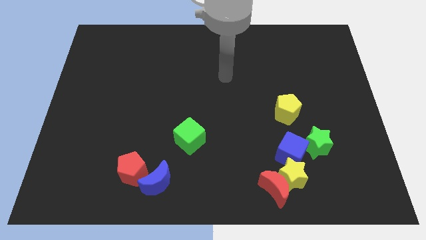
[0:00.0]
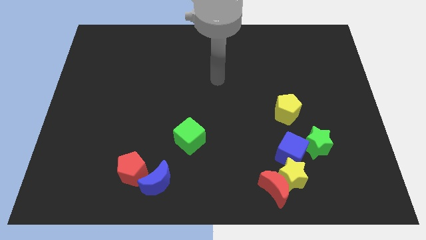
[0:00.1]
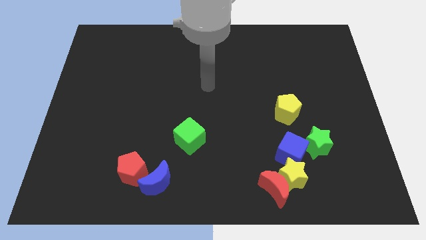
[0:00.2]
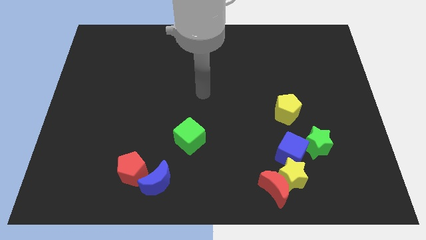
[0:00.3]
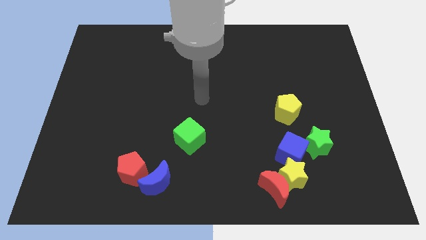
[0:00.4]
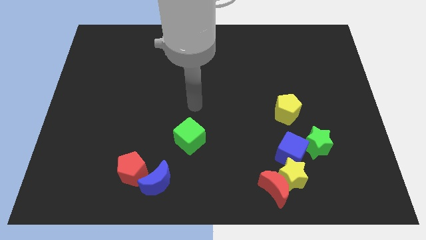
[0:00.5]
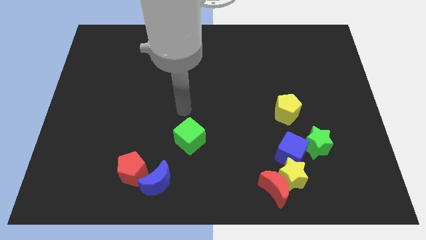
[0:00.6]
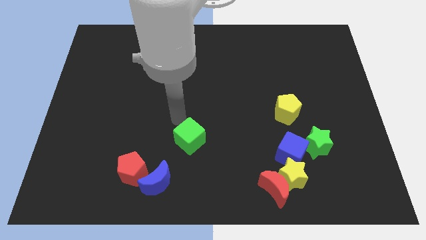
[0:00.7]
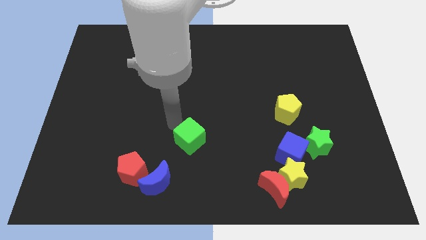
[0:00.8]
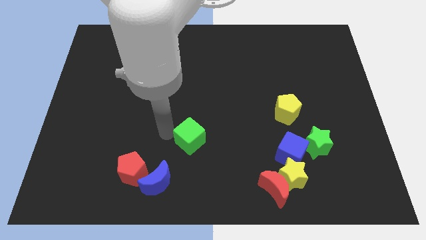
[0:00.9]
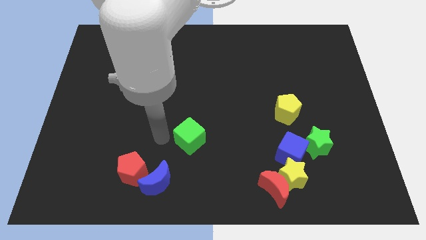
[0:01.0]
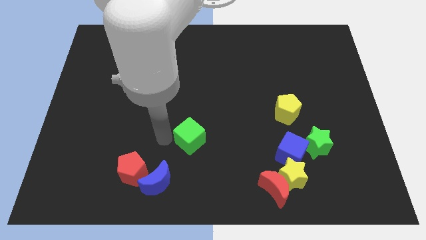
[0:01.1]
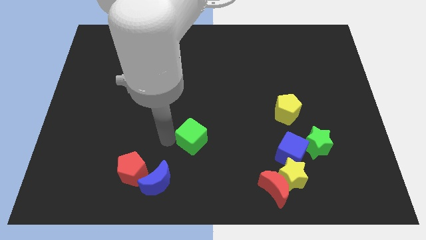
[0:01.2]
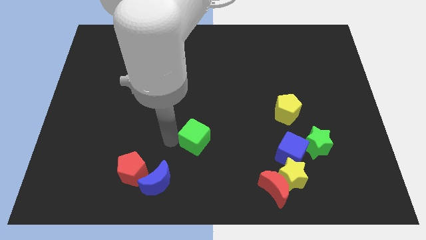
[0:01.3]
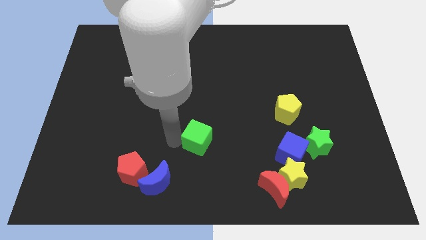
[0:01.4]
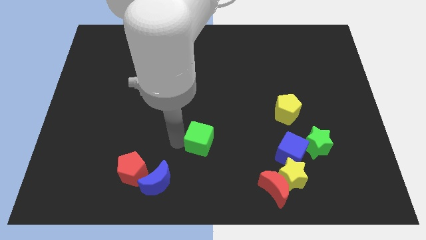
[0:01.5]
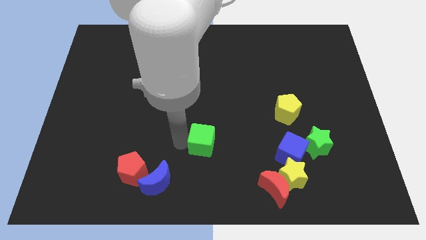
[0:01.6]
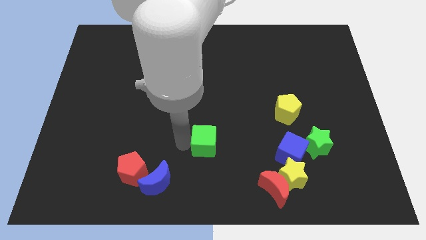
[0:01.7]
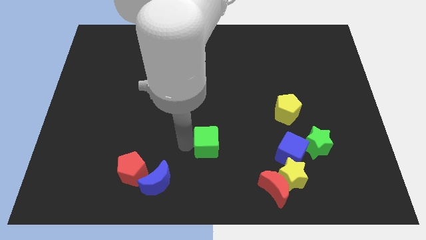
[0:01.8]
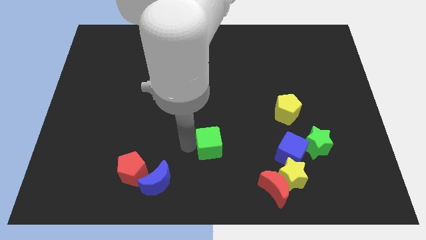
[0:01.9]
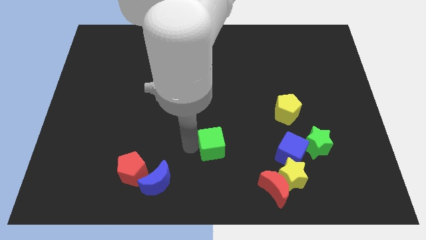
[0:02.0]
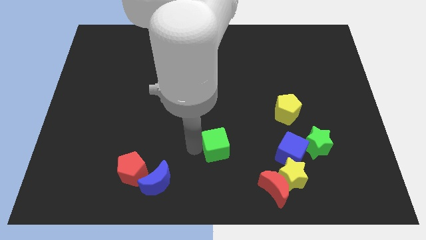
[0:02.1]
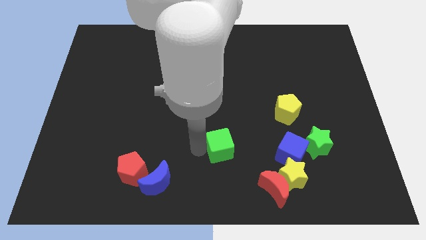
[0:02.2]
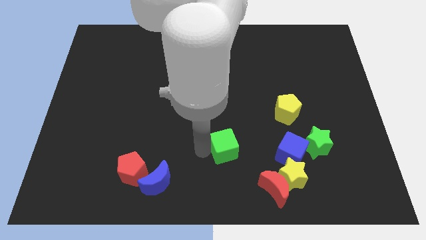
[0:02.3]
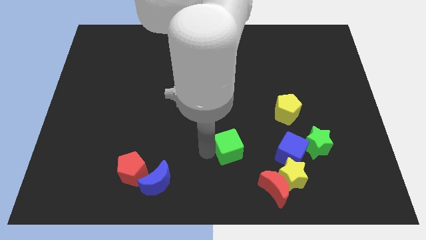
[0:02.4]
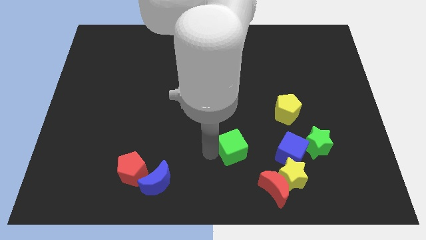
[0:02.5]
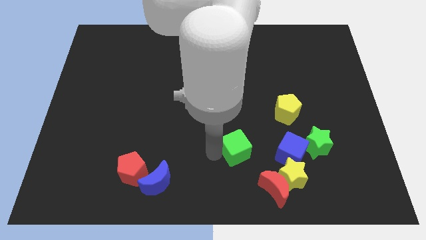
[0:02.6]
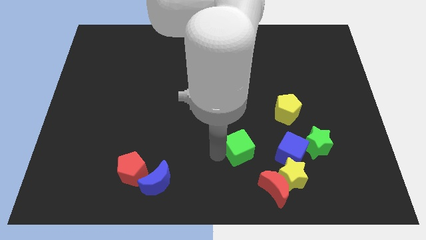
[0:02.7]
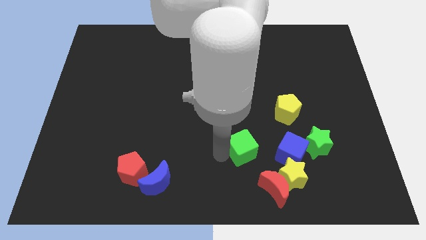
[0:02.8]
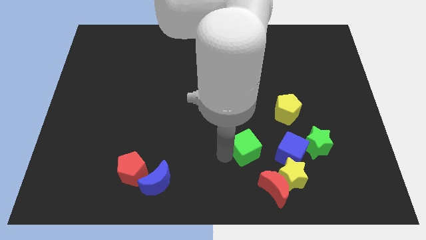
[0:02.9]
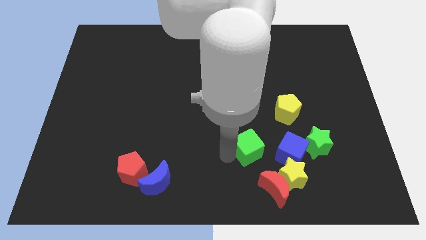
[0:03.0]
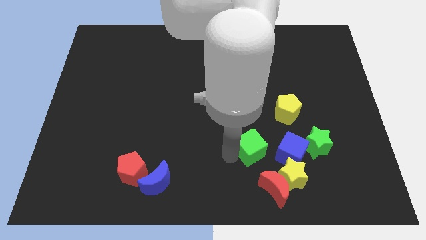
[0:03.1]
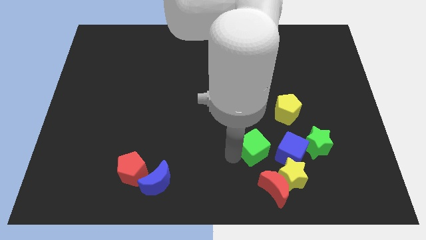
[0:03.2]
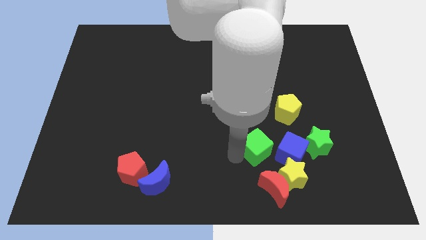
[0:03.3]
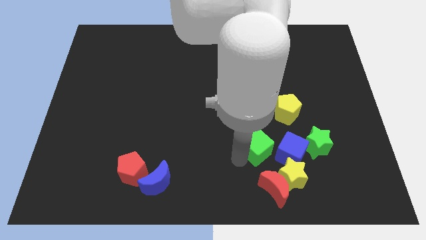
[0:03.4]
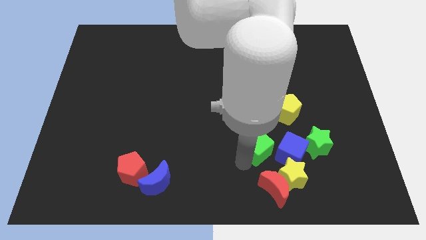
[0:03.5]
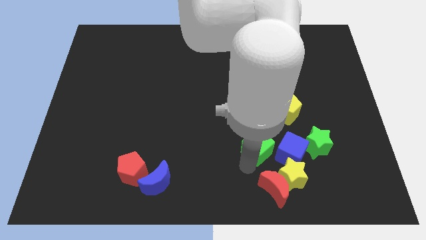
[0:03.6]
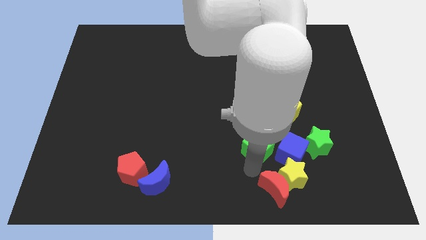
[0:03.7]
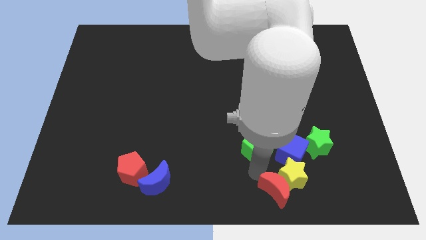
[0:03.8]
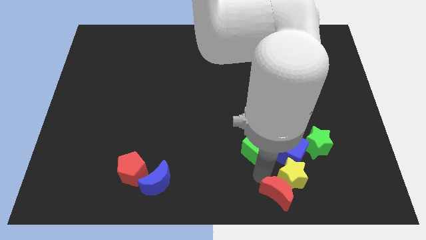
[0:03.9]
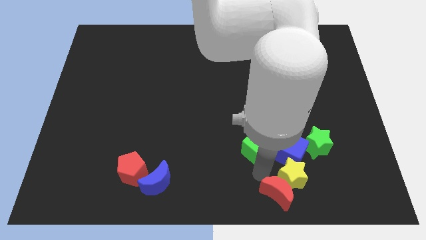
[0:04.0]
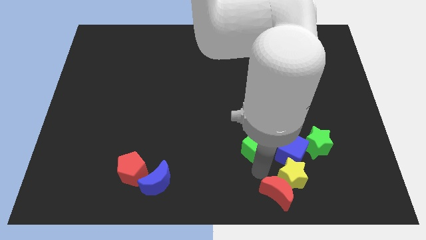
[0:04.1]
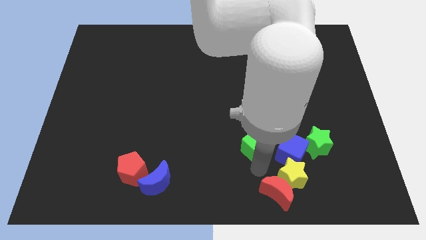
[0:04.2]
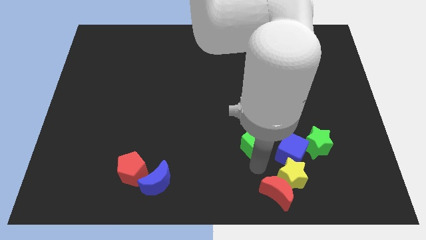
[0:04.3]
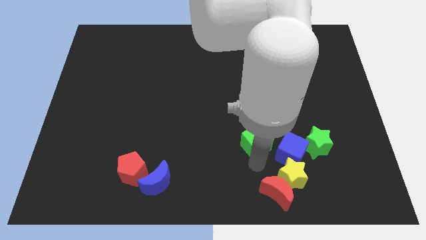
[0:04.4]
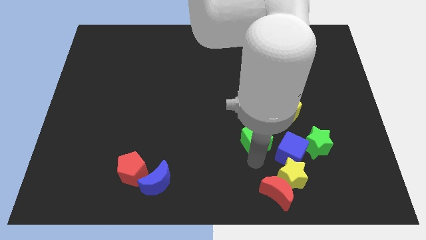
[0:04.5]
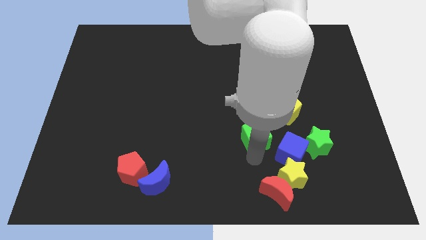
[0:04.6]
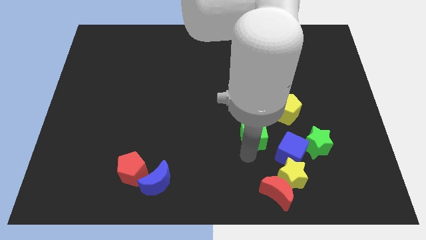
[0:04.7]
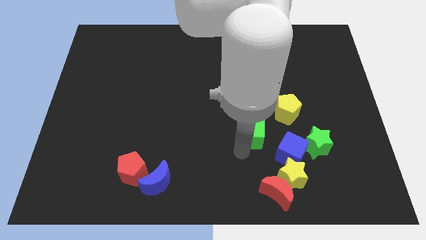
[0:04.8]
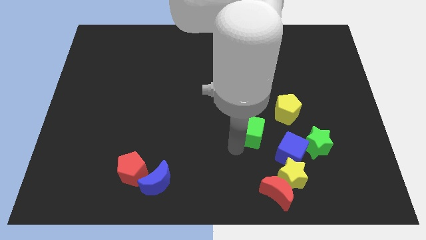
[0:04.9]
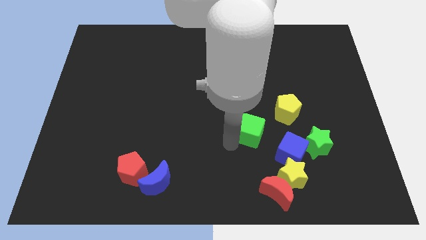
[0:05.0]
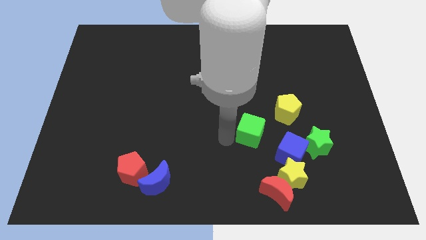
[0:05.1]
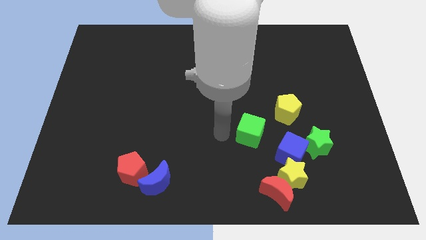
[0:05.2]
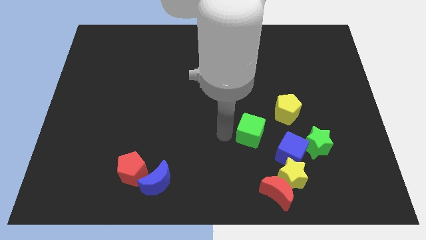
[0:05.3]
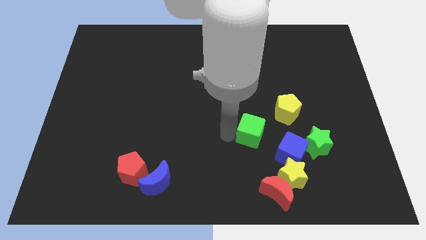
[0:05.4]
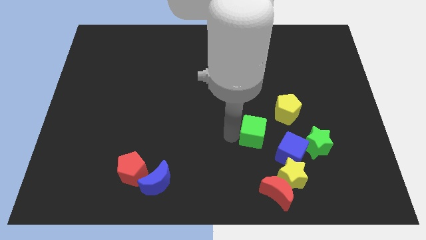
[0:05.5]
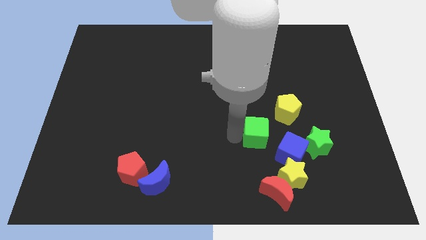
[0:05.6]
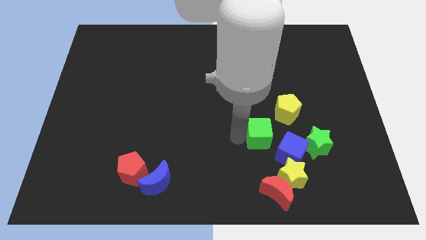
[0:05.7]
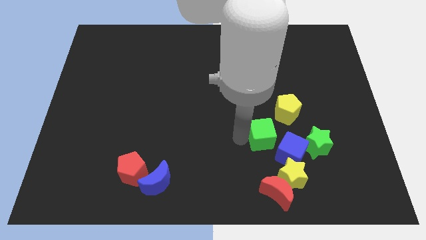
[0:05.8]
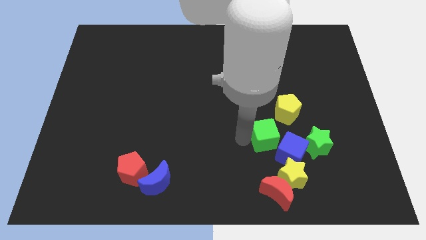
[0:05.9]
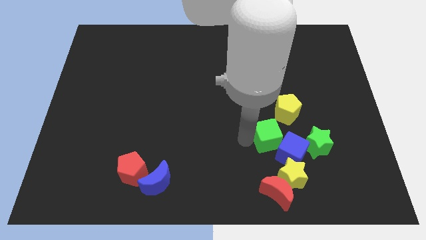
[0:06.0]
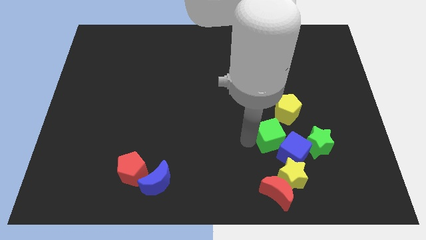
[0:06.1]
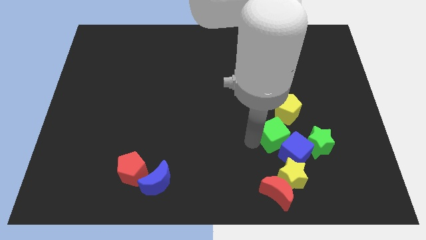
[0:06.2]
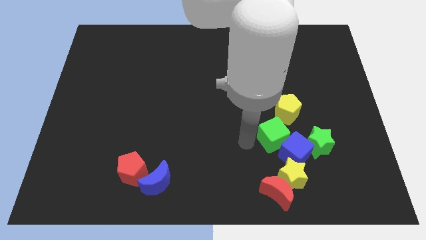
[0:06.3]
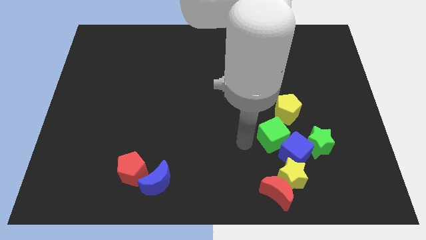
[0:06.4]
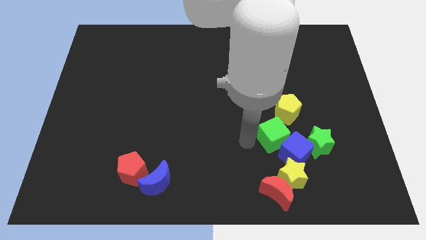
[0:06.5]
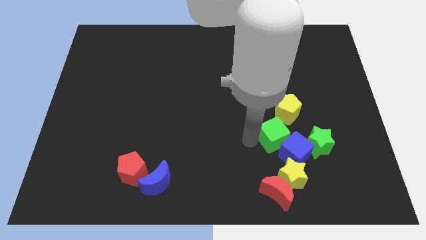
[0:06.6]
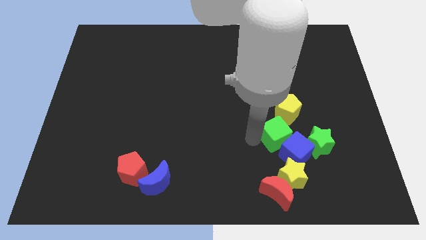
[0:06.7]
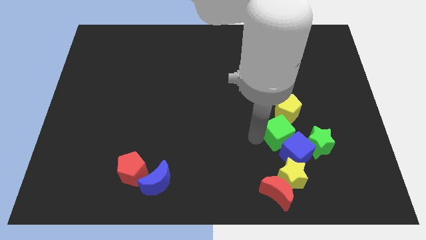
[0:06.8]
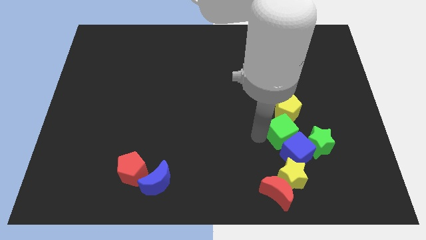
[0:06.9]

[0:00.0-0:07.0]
move the green cube to the right

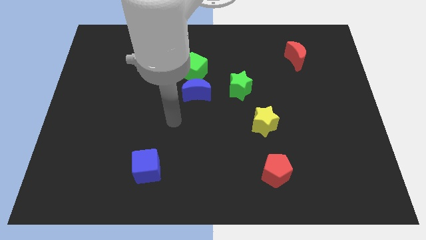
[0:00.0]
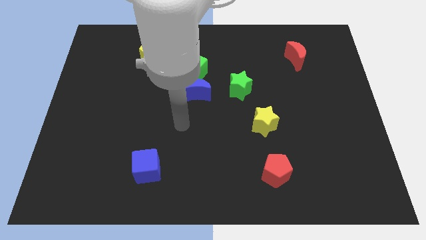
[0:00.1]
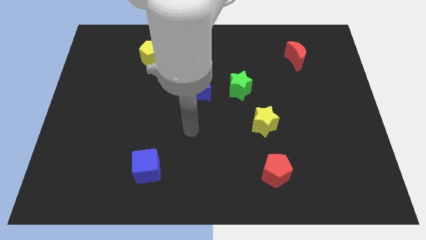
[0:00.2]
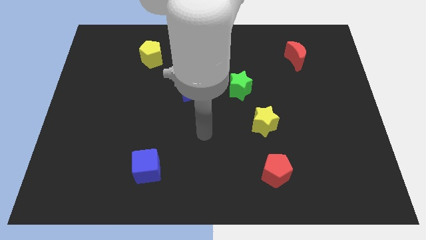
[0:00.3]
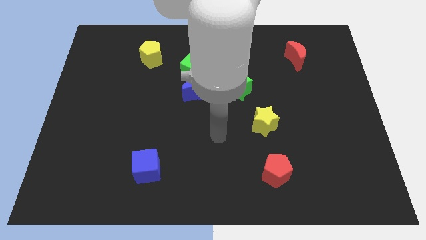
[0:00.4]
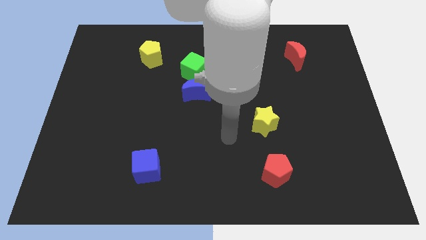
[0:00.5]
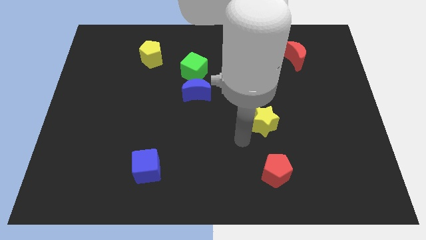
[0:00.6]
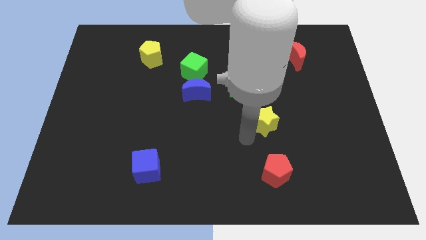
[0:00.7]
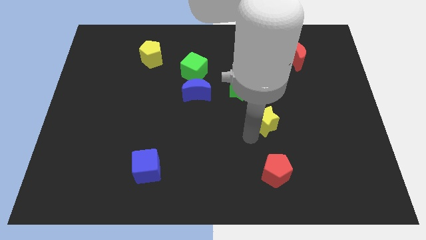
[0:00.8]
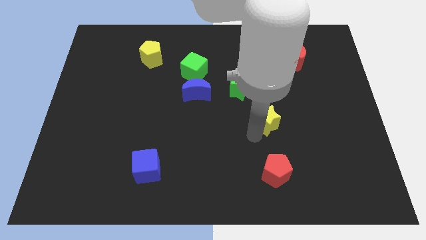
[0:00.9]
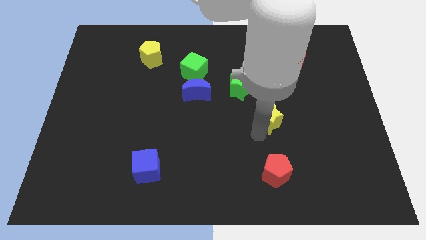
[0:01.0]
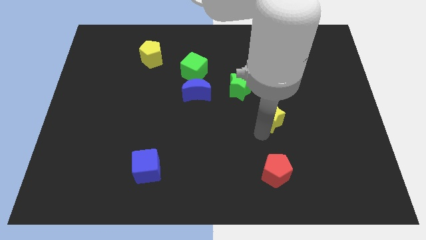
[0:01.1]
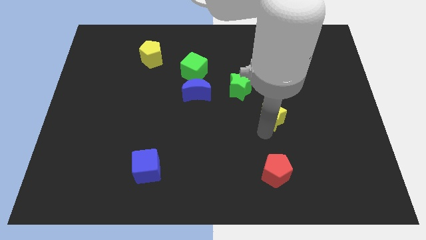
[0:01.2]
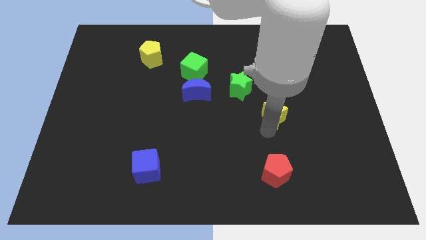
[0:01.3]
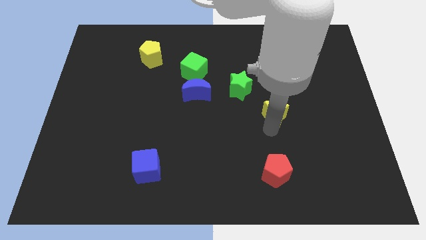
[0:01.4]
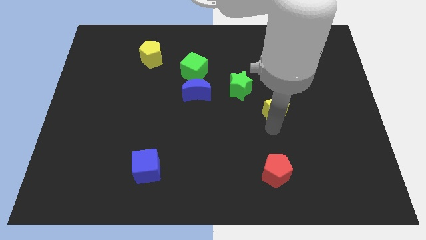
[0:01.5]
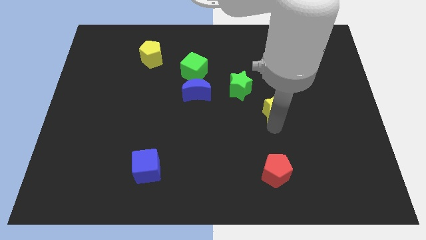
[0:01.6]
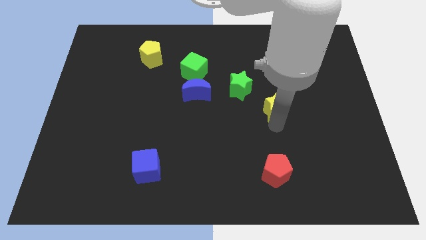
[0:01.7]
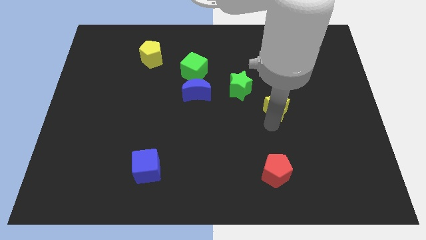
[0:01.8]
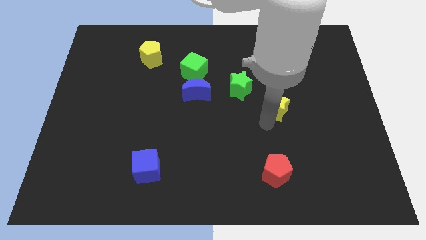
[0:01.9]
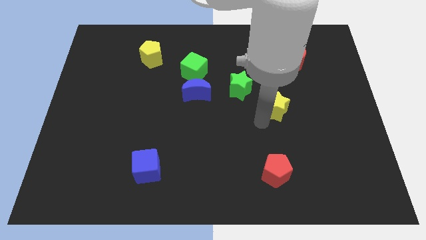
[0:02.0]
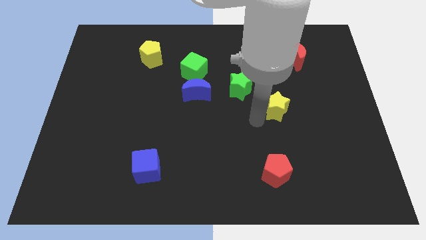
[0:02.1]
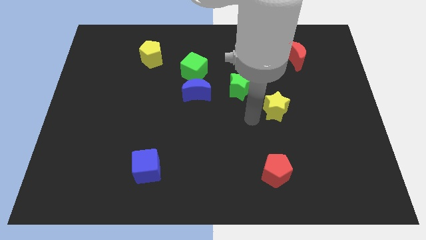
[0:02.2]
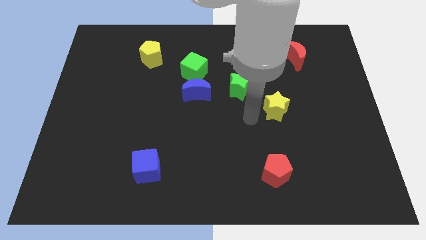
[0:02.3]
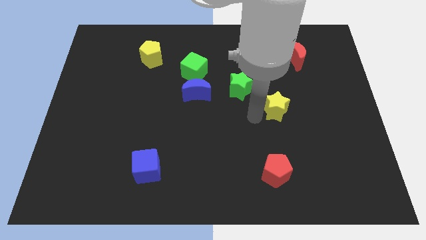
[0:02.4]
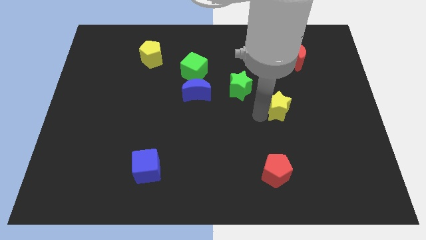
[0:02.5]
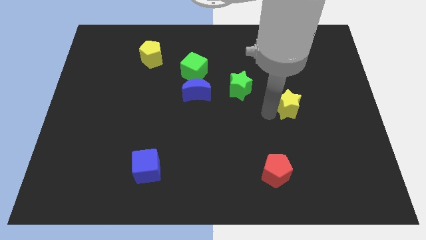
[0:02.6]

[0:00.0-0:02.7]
push the yellow star up and right diagonally somewhat
